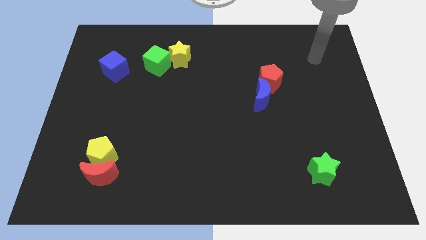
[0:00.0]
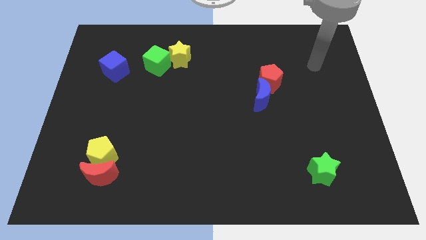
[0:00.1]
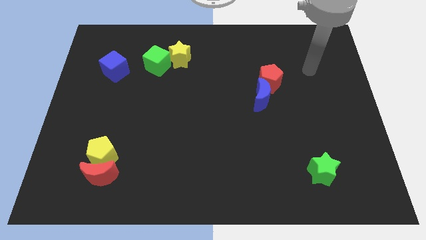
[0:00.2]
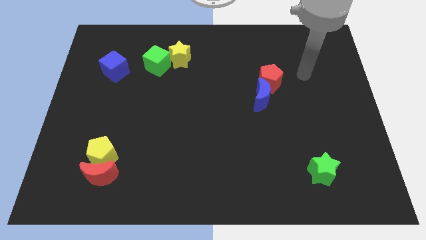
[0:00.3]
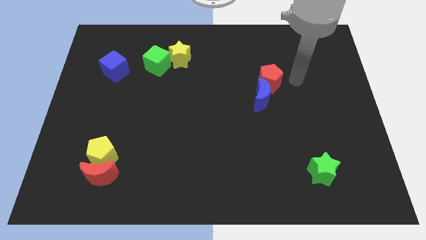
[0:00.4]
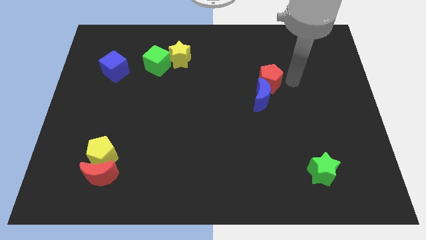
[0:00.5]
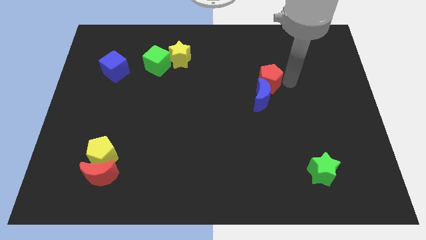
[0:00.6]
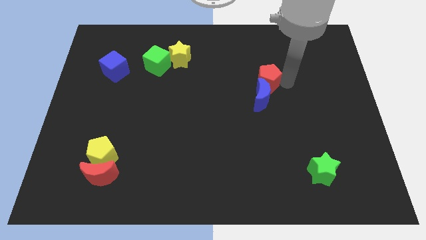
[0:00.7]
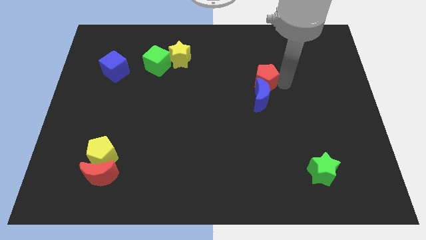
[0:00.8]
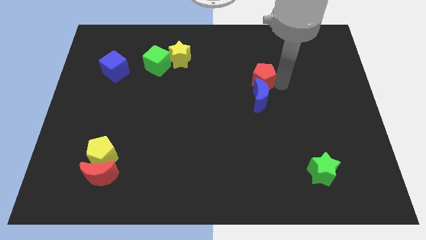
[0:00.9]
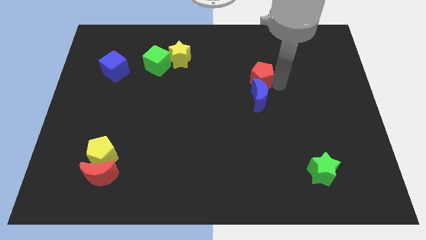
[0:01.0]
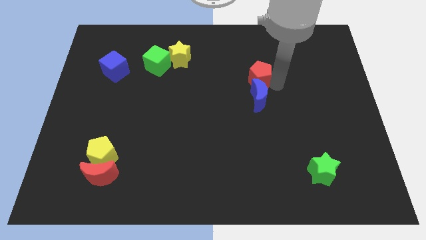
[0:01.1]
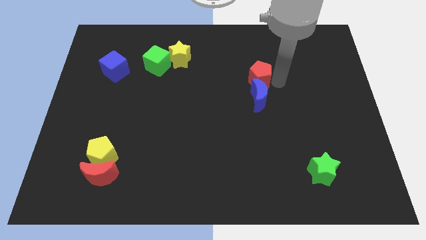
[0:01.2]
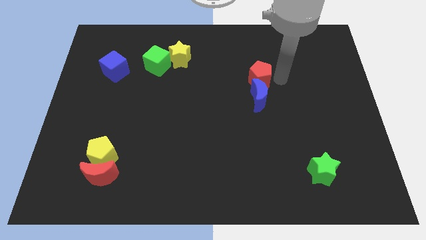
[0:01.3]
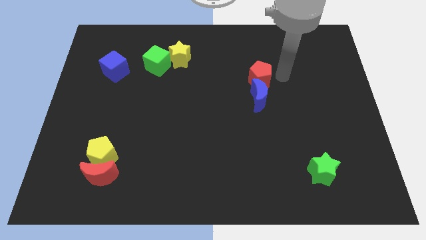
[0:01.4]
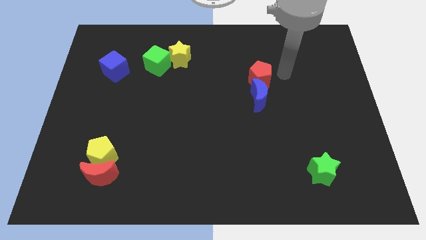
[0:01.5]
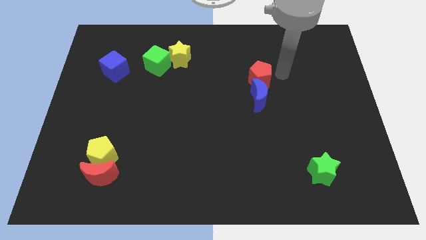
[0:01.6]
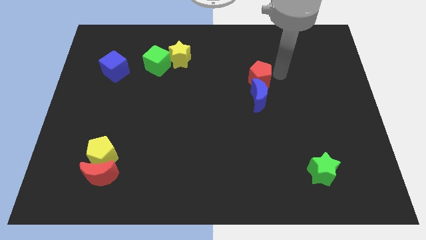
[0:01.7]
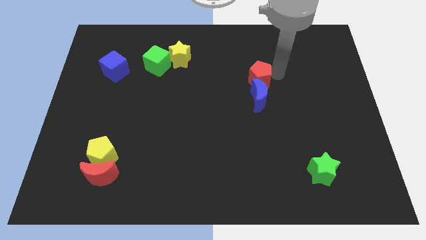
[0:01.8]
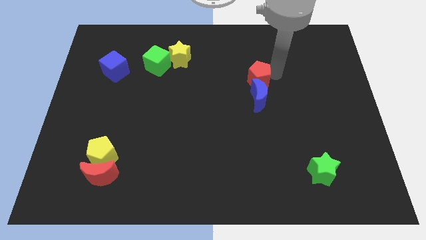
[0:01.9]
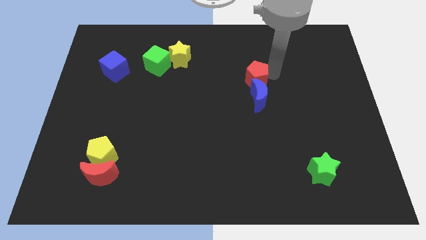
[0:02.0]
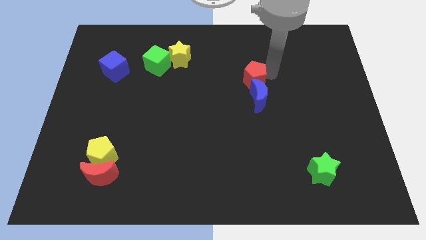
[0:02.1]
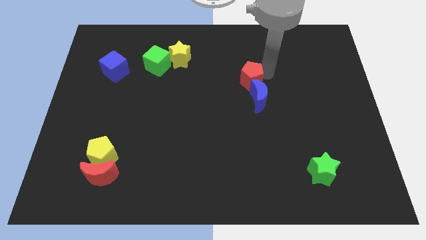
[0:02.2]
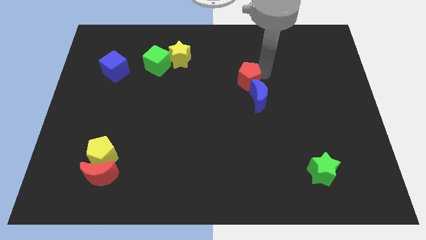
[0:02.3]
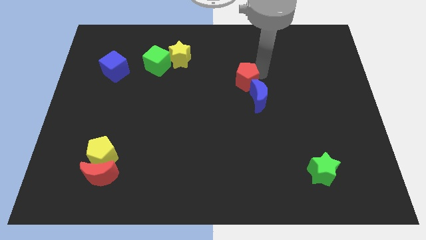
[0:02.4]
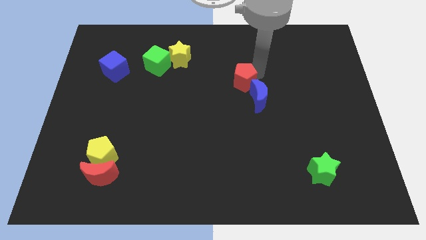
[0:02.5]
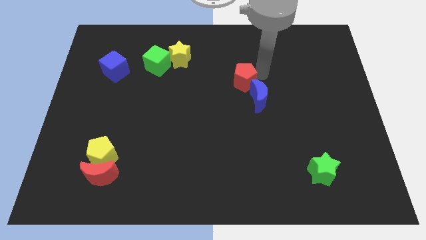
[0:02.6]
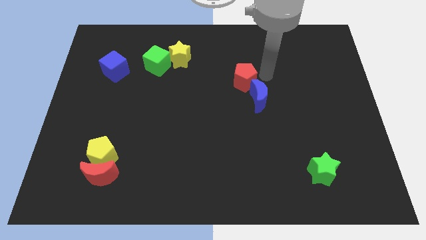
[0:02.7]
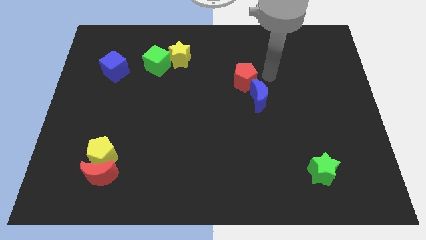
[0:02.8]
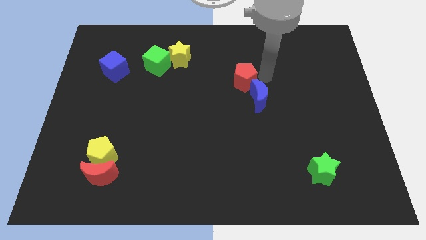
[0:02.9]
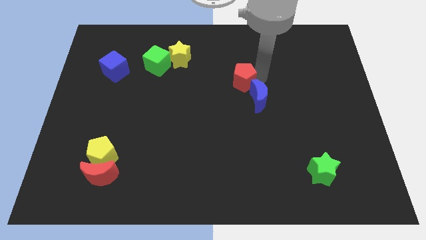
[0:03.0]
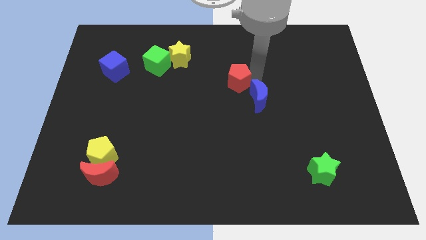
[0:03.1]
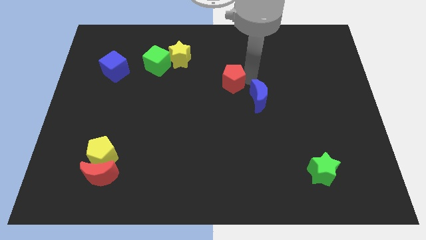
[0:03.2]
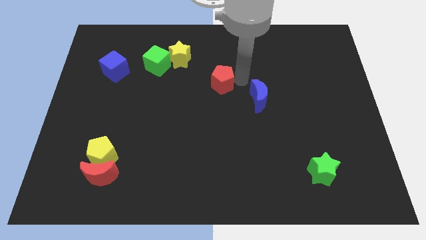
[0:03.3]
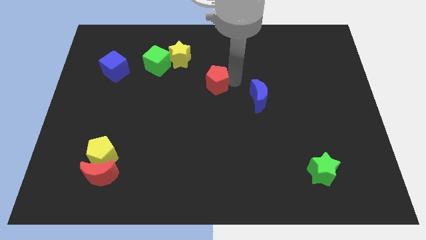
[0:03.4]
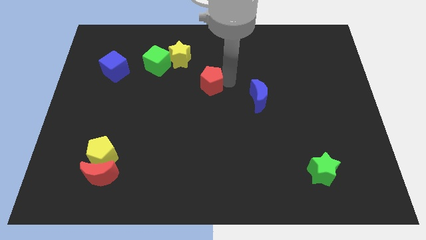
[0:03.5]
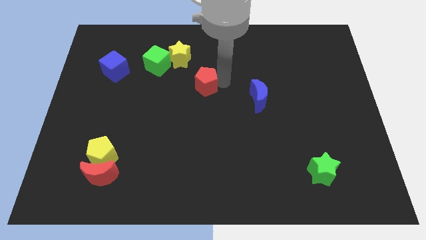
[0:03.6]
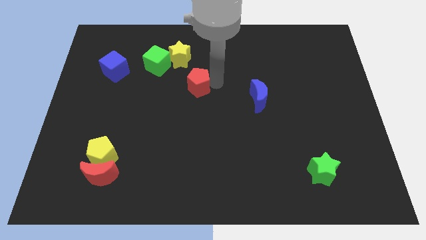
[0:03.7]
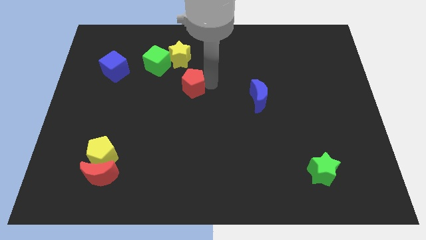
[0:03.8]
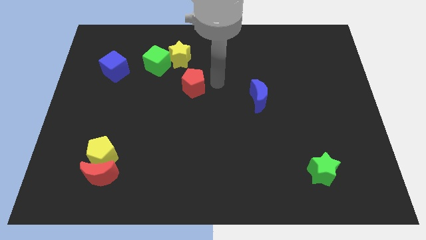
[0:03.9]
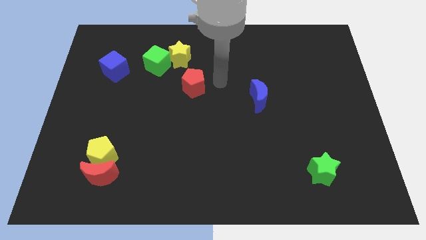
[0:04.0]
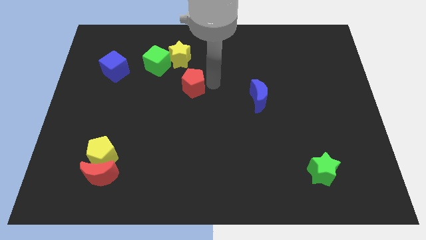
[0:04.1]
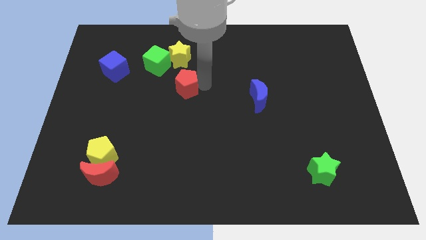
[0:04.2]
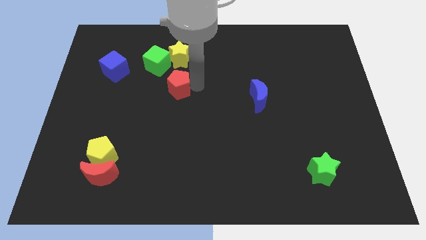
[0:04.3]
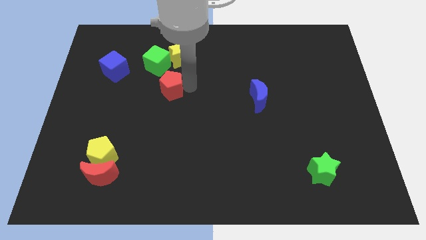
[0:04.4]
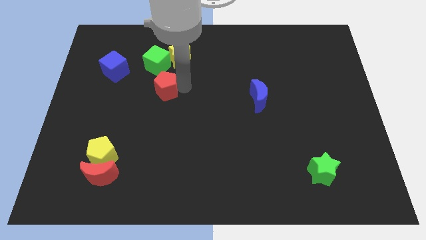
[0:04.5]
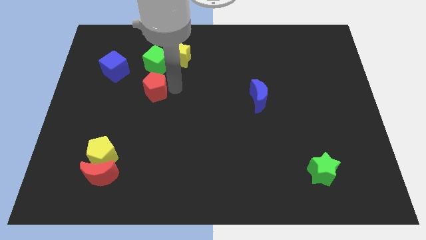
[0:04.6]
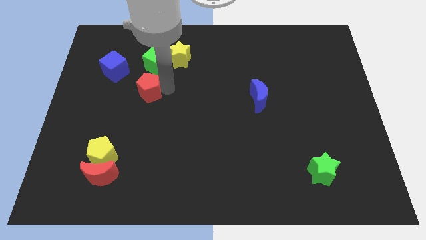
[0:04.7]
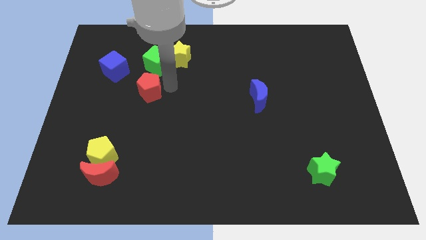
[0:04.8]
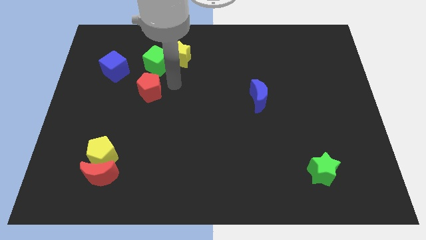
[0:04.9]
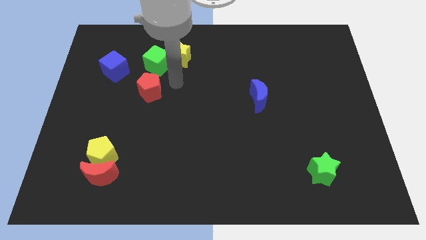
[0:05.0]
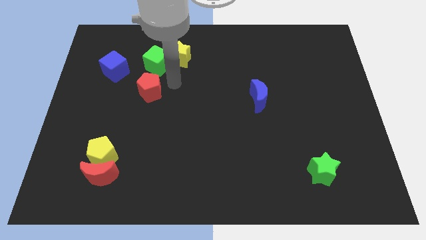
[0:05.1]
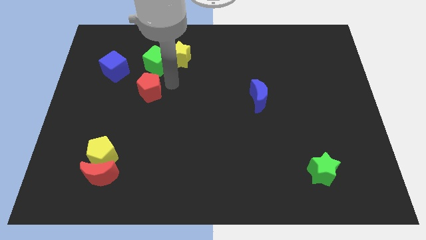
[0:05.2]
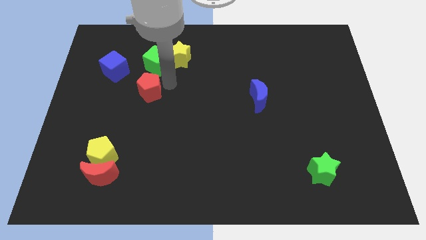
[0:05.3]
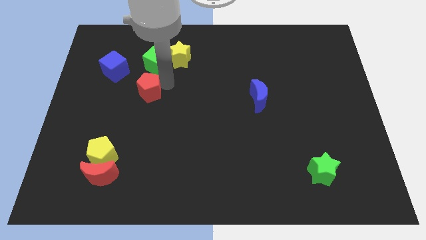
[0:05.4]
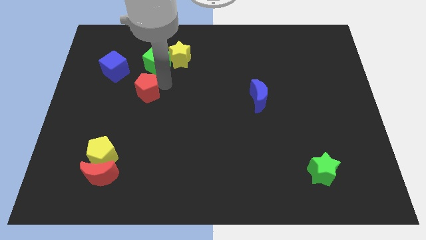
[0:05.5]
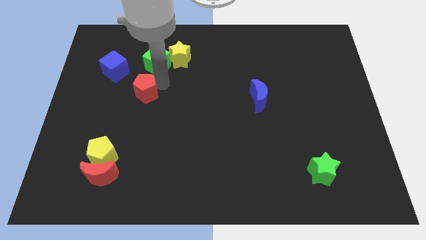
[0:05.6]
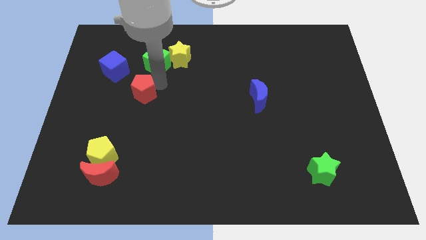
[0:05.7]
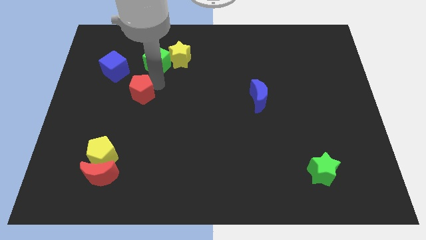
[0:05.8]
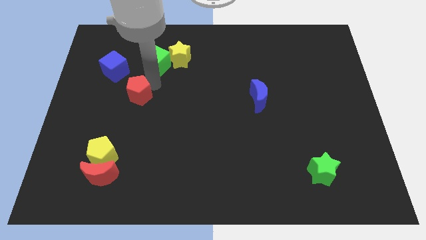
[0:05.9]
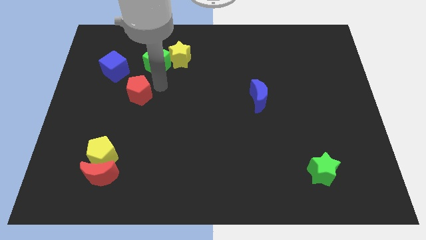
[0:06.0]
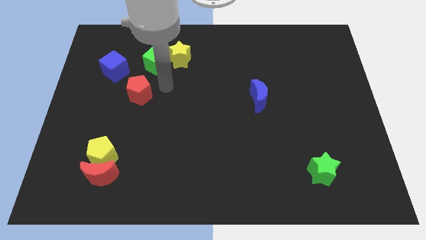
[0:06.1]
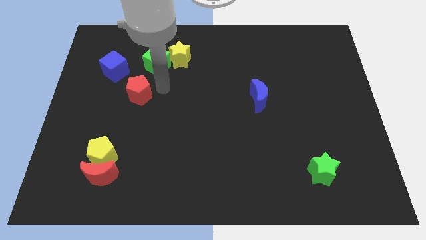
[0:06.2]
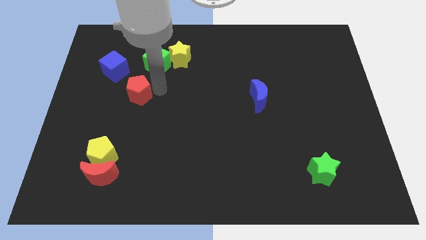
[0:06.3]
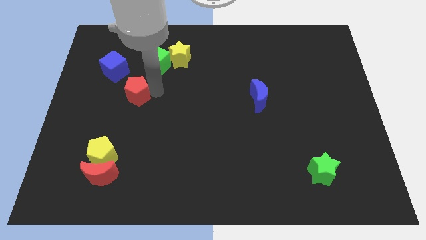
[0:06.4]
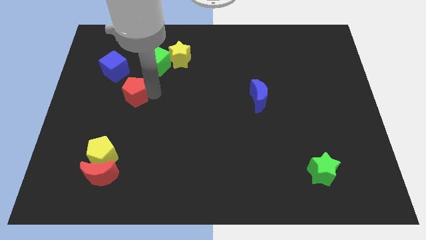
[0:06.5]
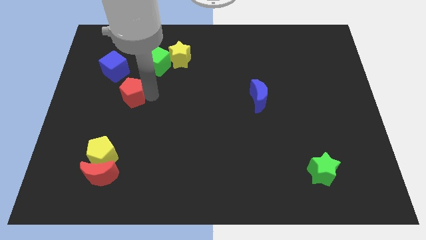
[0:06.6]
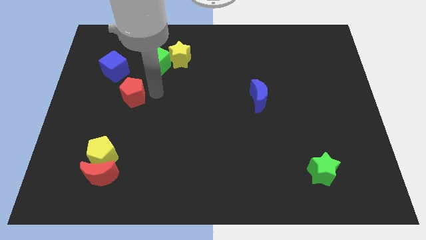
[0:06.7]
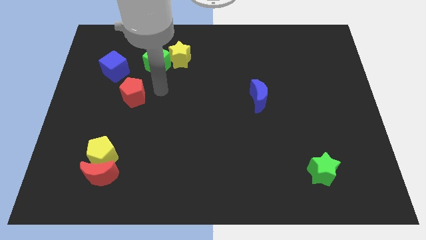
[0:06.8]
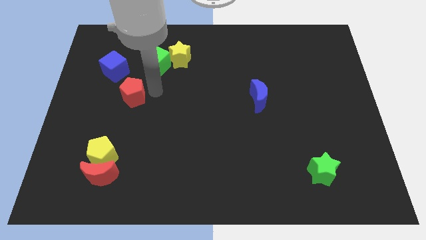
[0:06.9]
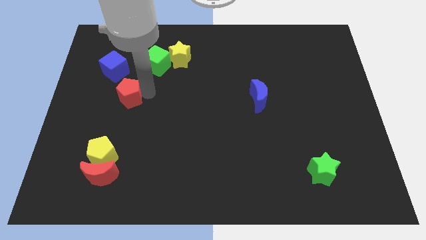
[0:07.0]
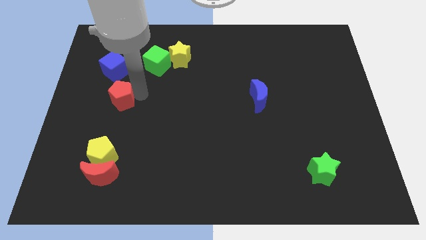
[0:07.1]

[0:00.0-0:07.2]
push the red pentagon to the bottom side of the blue cube

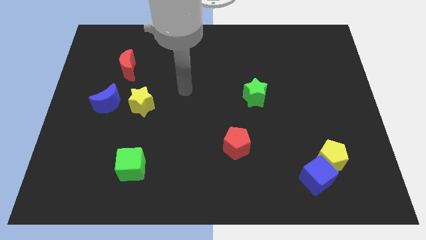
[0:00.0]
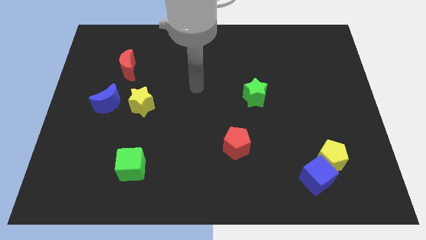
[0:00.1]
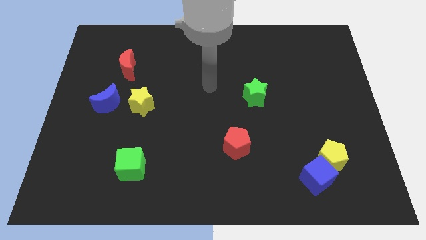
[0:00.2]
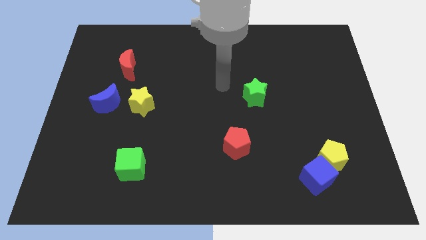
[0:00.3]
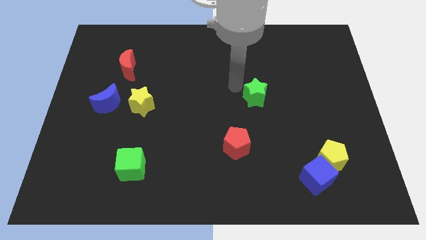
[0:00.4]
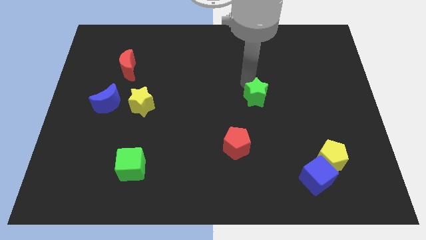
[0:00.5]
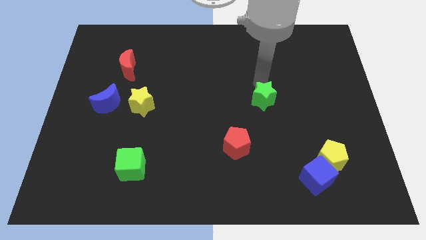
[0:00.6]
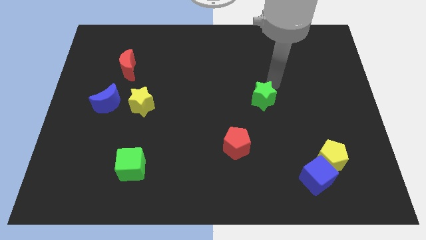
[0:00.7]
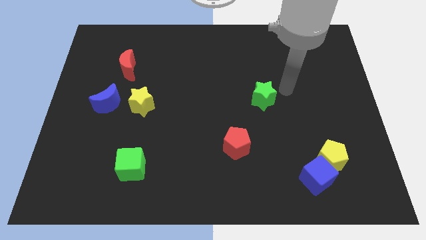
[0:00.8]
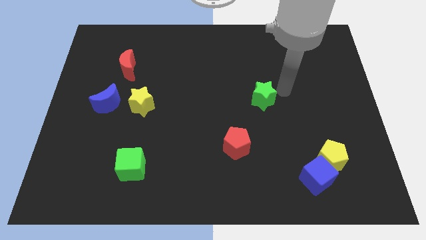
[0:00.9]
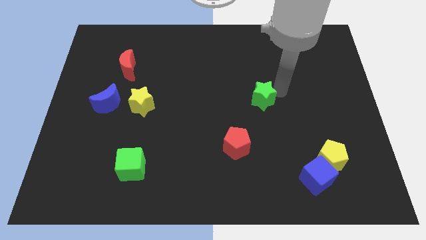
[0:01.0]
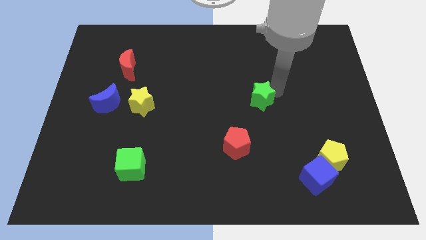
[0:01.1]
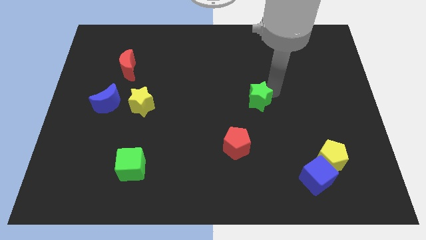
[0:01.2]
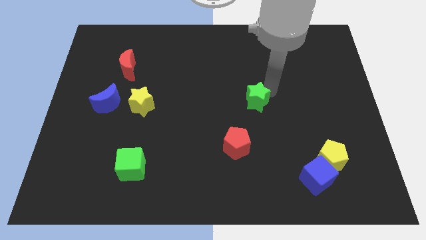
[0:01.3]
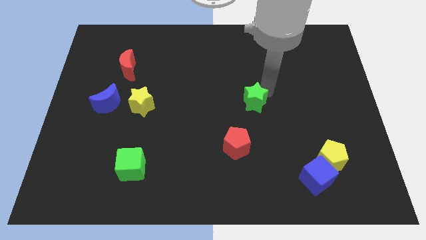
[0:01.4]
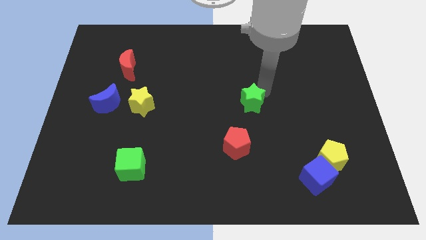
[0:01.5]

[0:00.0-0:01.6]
slide the green star to the top side of the red pentagon
